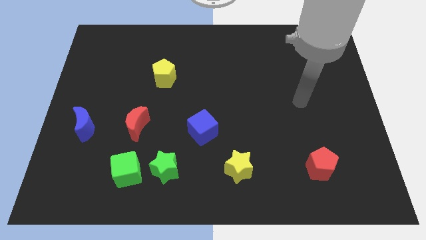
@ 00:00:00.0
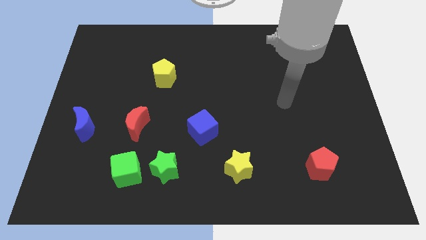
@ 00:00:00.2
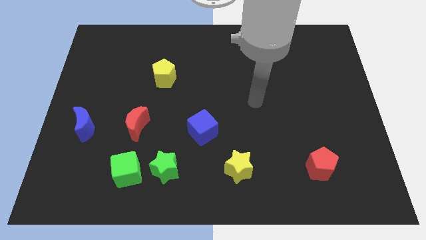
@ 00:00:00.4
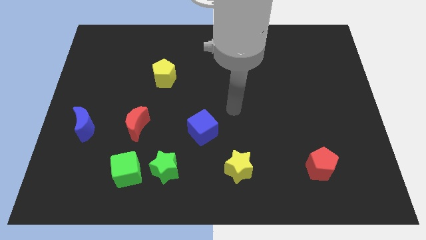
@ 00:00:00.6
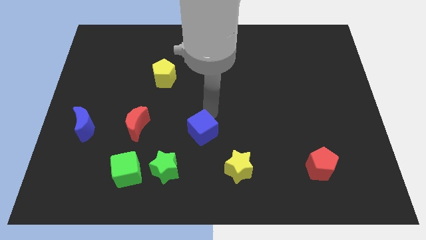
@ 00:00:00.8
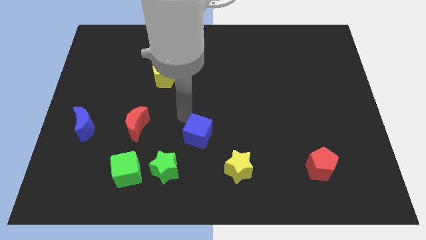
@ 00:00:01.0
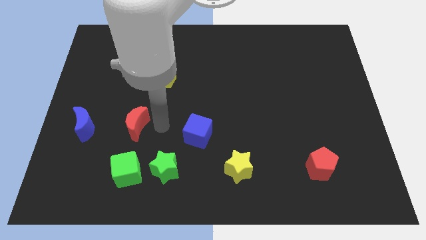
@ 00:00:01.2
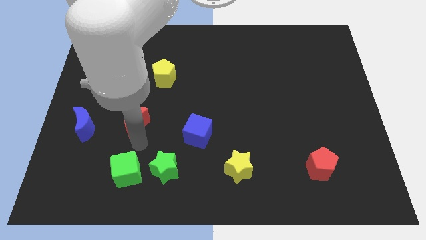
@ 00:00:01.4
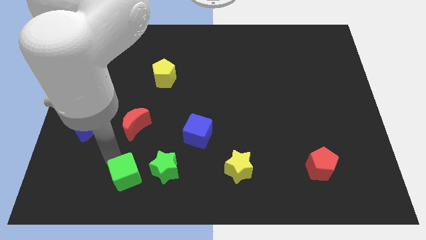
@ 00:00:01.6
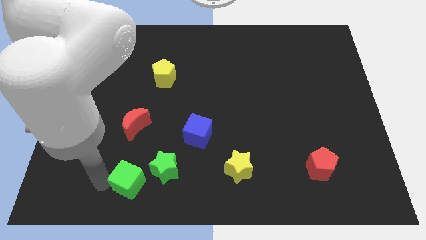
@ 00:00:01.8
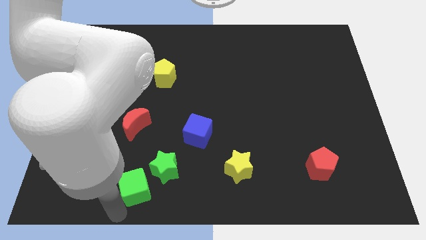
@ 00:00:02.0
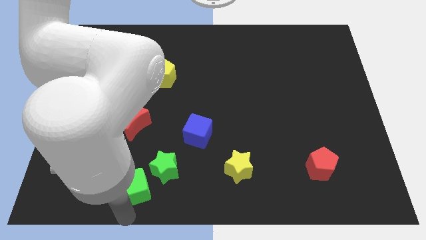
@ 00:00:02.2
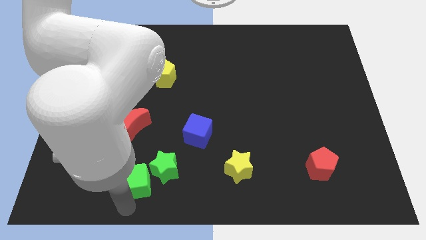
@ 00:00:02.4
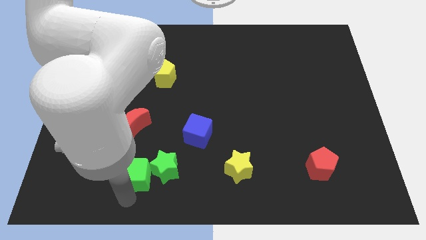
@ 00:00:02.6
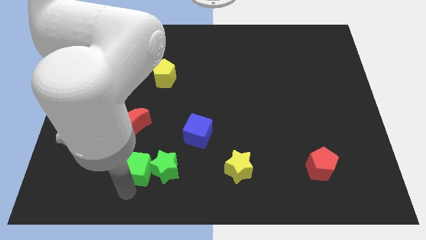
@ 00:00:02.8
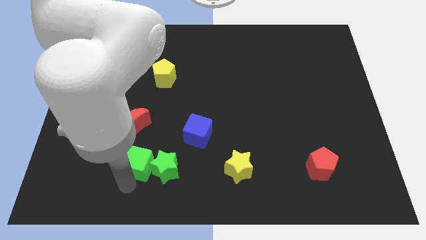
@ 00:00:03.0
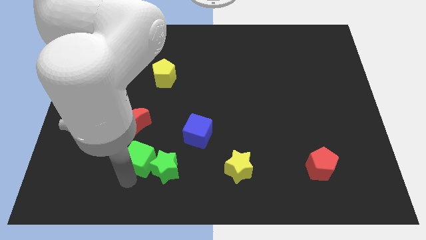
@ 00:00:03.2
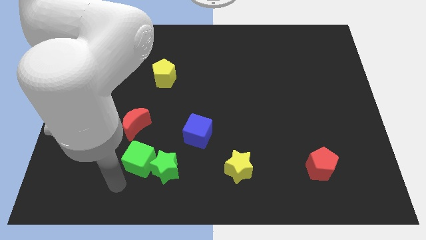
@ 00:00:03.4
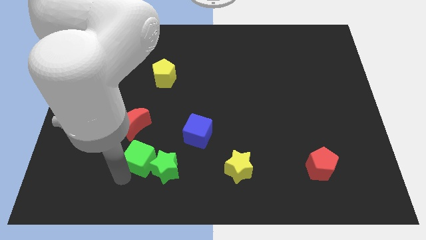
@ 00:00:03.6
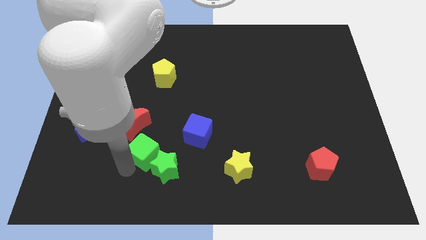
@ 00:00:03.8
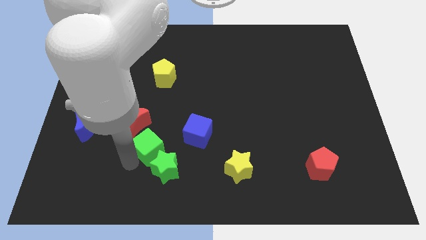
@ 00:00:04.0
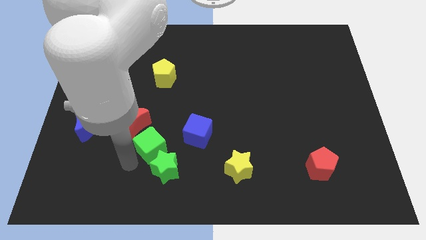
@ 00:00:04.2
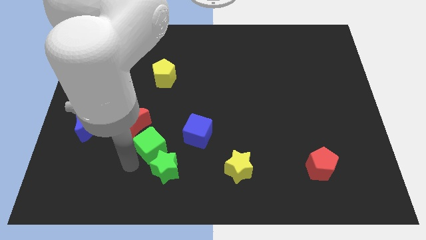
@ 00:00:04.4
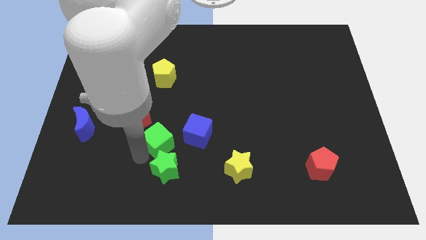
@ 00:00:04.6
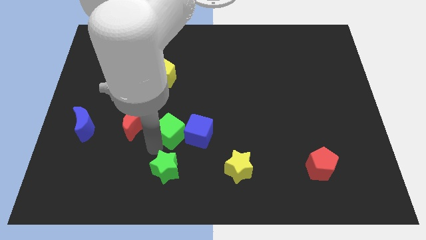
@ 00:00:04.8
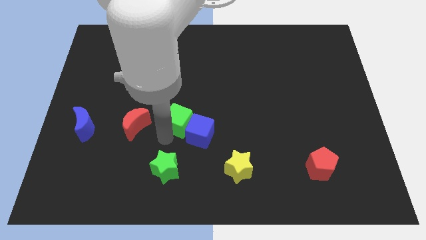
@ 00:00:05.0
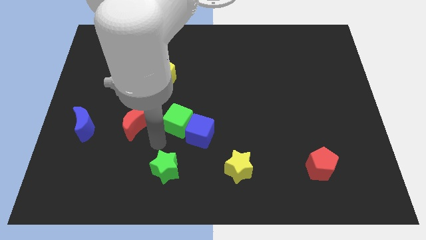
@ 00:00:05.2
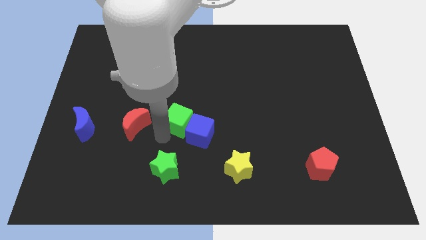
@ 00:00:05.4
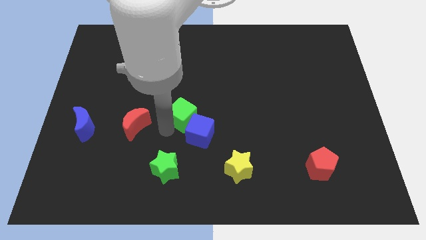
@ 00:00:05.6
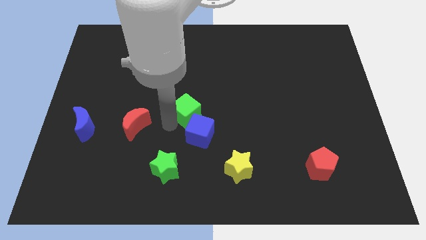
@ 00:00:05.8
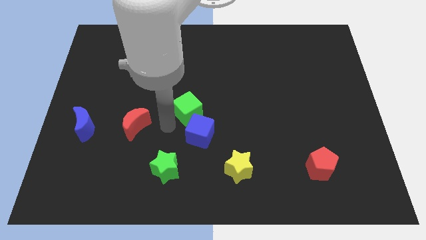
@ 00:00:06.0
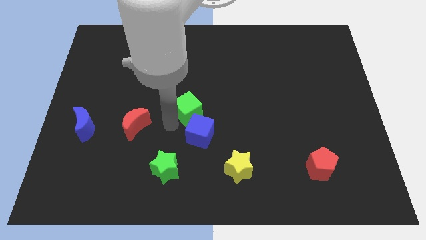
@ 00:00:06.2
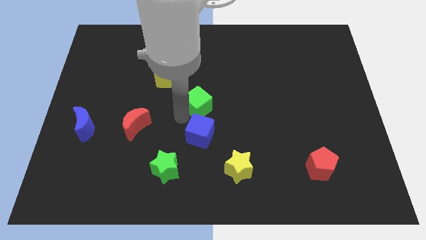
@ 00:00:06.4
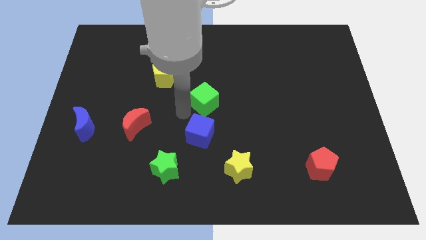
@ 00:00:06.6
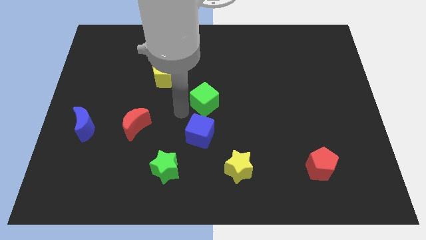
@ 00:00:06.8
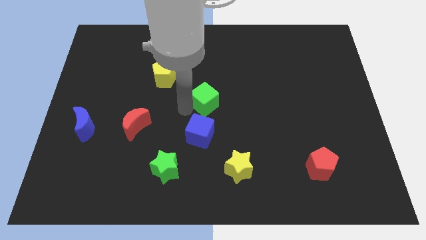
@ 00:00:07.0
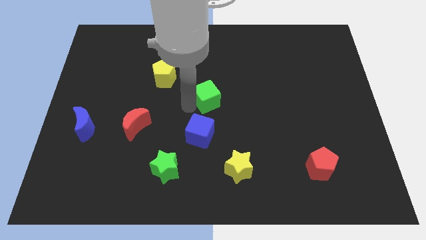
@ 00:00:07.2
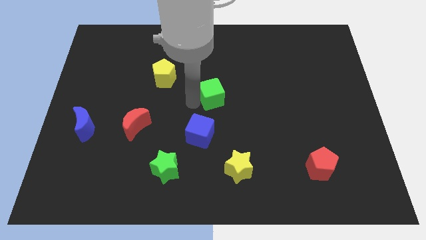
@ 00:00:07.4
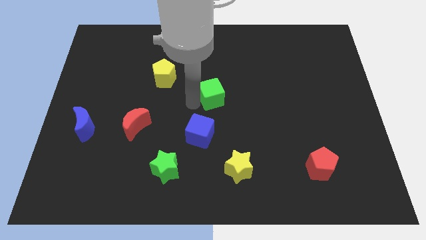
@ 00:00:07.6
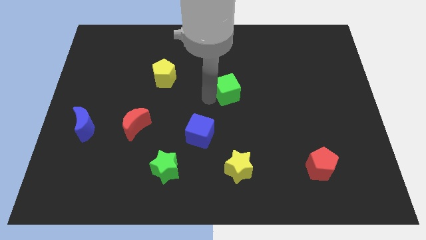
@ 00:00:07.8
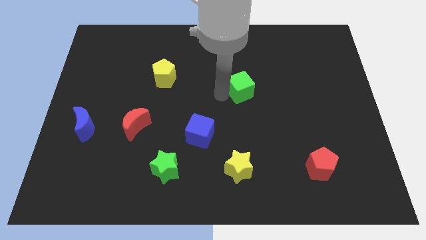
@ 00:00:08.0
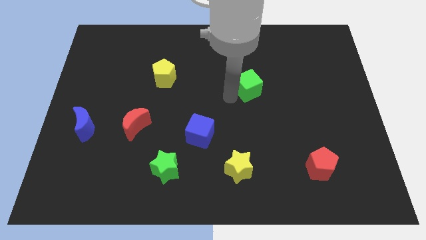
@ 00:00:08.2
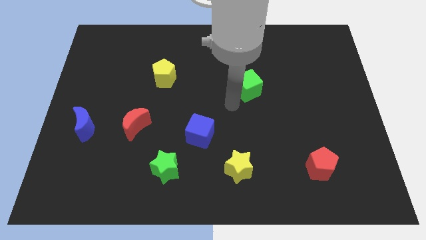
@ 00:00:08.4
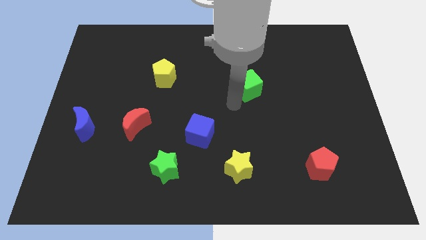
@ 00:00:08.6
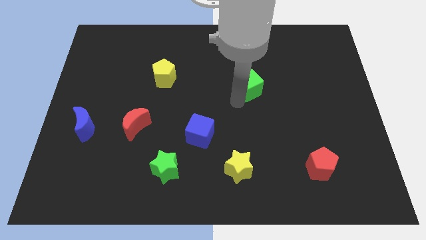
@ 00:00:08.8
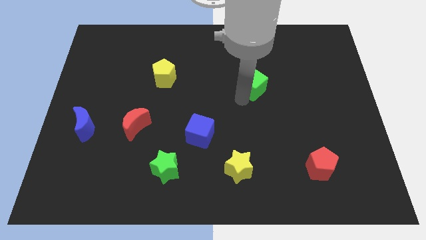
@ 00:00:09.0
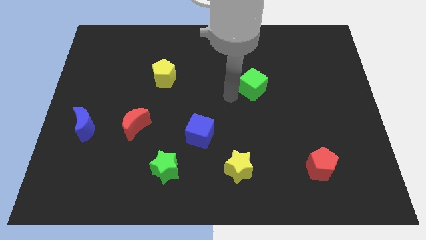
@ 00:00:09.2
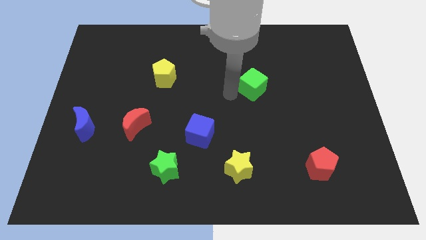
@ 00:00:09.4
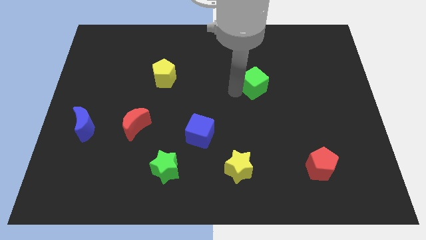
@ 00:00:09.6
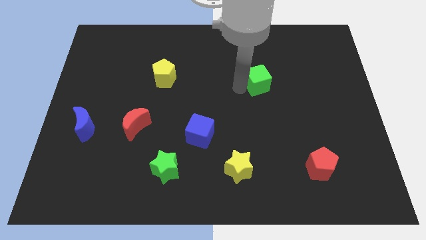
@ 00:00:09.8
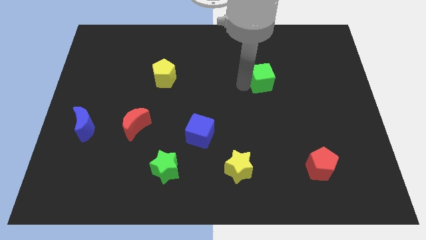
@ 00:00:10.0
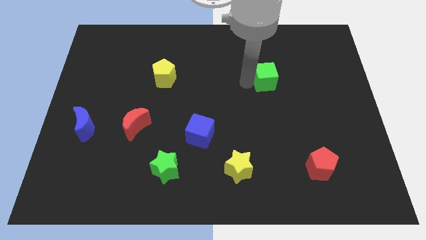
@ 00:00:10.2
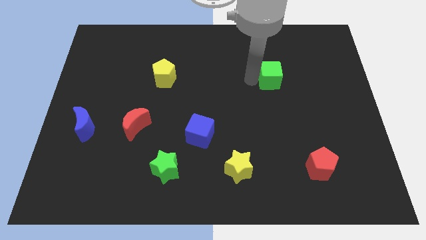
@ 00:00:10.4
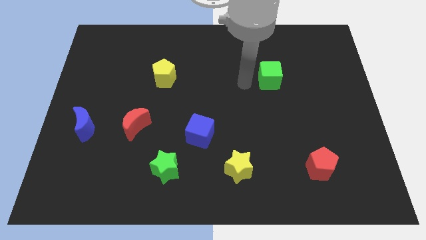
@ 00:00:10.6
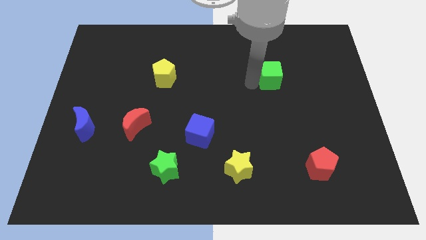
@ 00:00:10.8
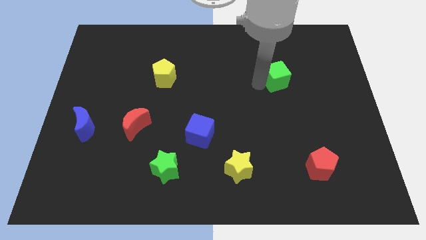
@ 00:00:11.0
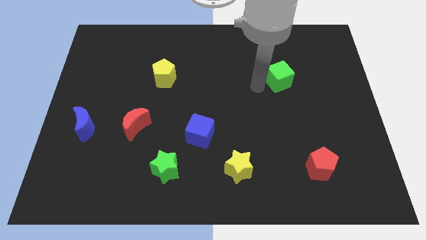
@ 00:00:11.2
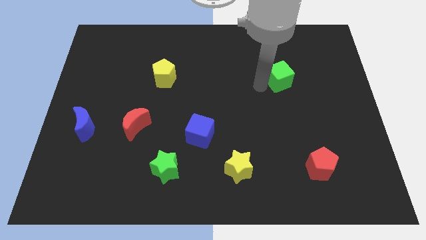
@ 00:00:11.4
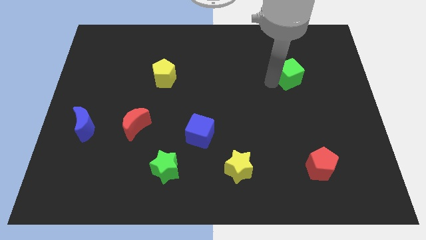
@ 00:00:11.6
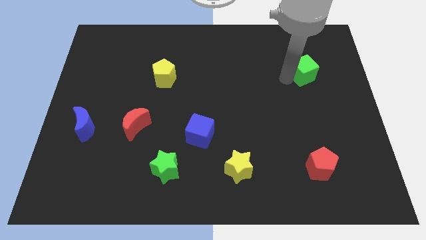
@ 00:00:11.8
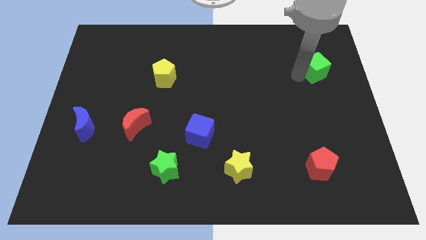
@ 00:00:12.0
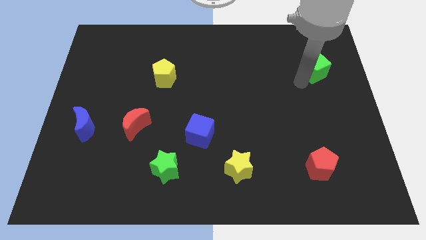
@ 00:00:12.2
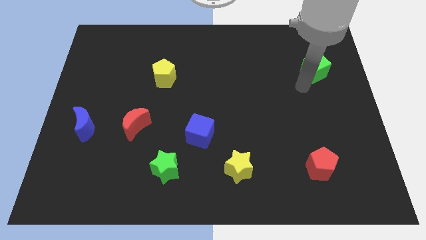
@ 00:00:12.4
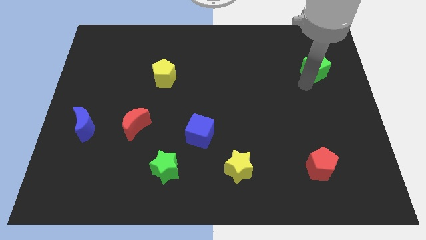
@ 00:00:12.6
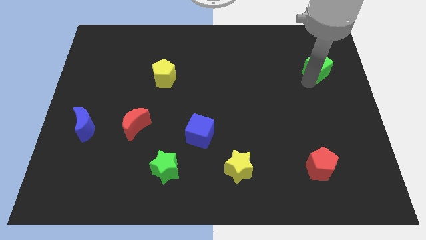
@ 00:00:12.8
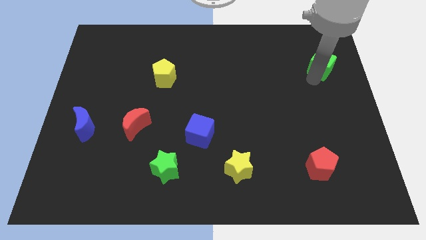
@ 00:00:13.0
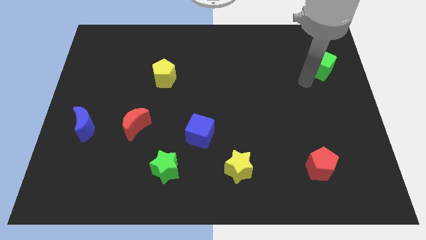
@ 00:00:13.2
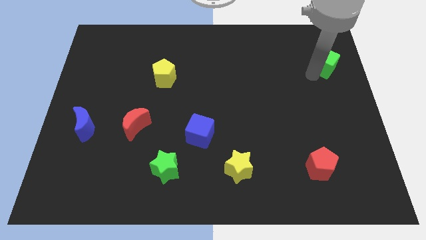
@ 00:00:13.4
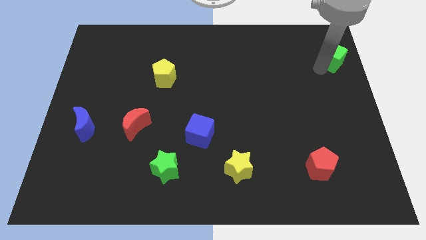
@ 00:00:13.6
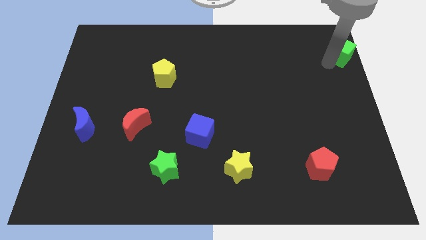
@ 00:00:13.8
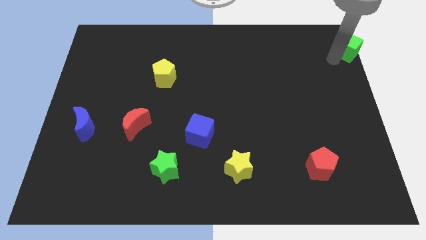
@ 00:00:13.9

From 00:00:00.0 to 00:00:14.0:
push the green cube to the top right
